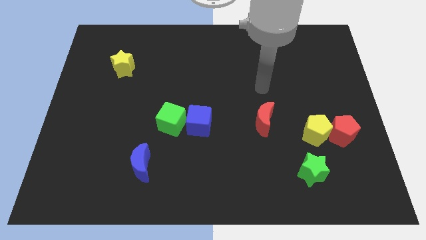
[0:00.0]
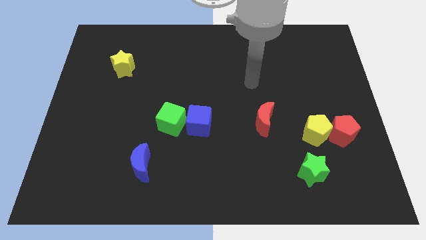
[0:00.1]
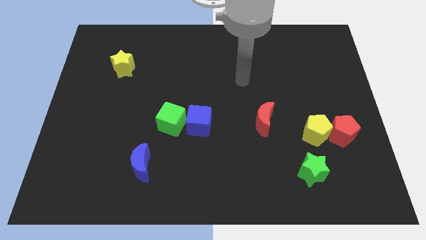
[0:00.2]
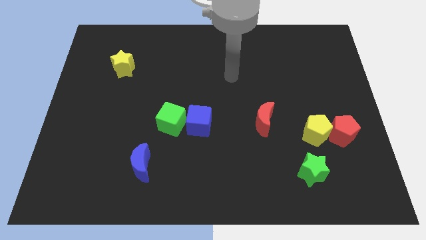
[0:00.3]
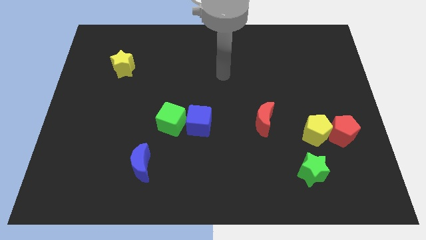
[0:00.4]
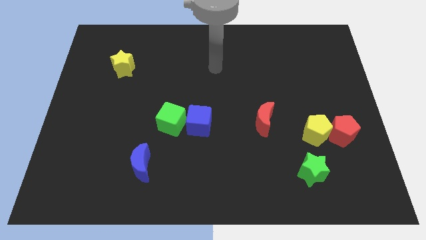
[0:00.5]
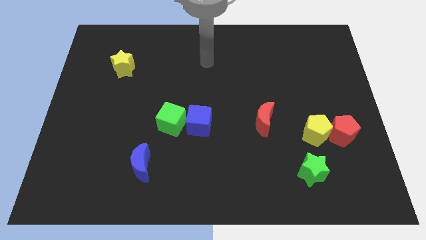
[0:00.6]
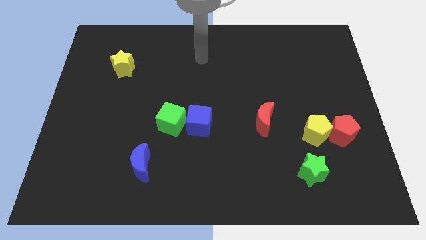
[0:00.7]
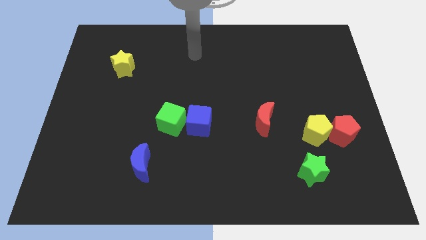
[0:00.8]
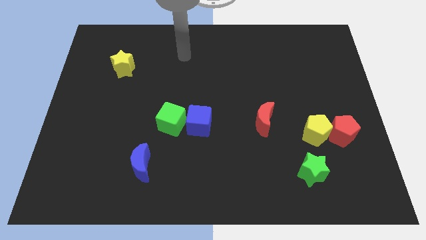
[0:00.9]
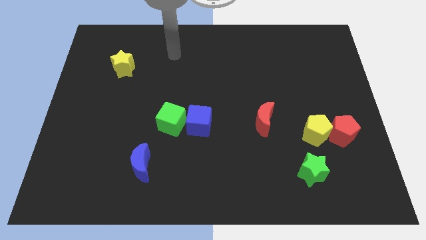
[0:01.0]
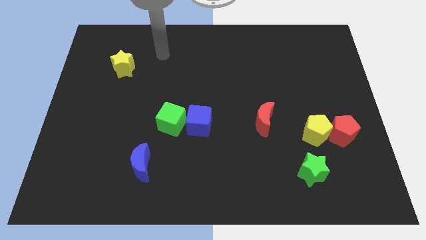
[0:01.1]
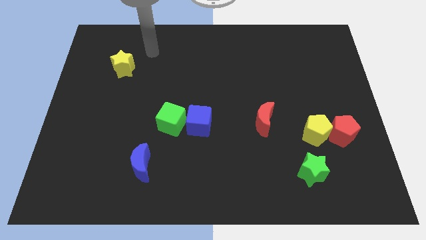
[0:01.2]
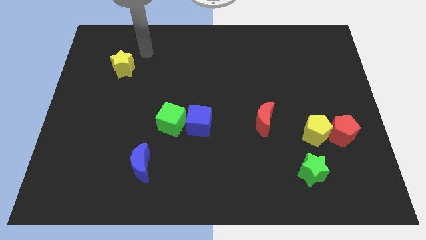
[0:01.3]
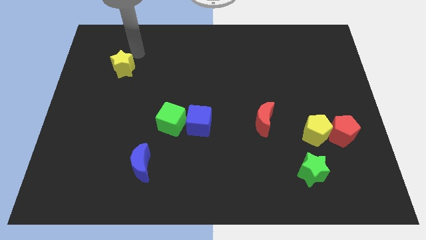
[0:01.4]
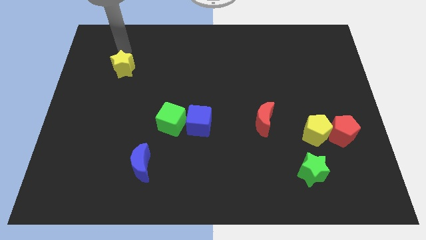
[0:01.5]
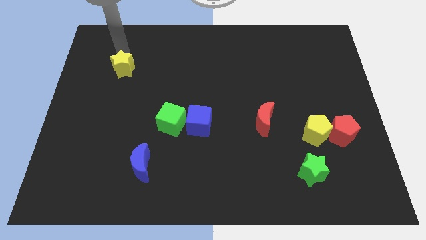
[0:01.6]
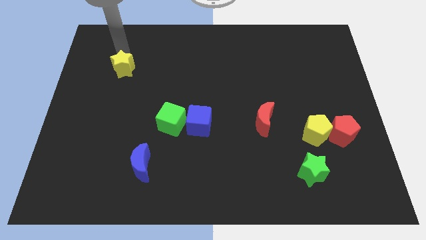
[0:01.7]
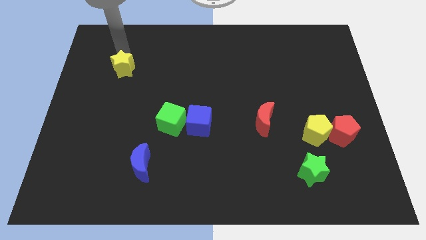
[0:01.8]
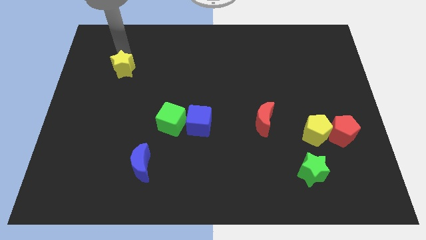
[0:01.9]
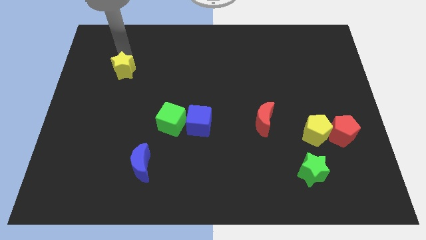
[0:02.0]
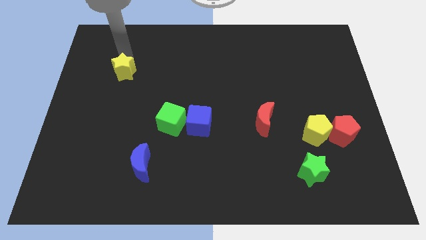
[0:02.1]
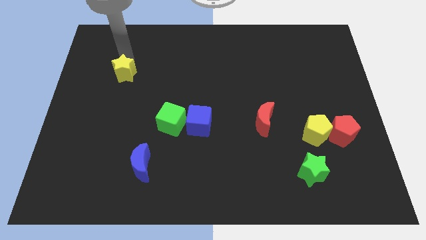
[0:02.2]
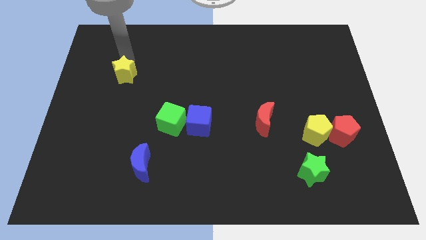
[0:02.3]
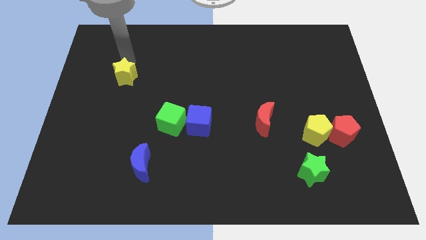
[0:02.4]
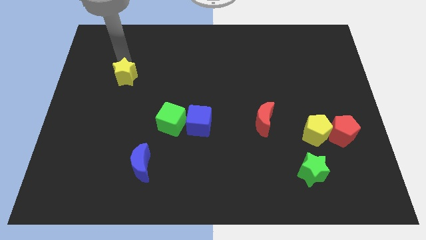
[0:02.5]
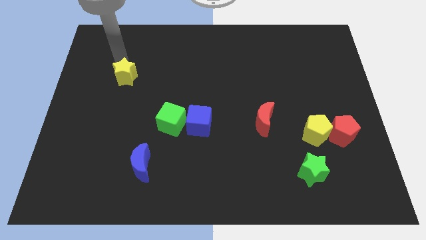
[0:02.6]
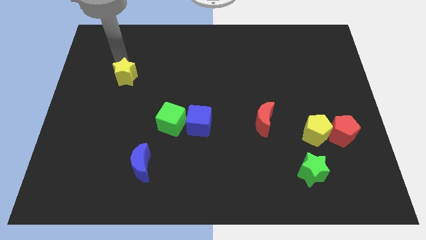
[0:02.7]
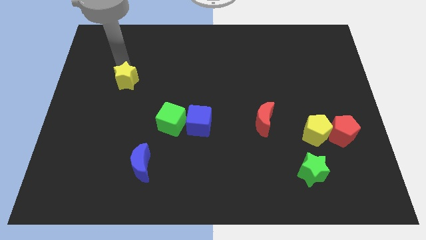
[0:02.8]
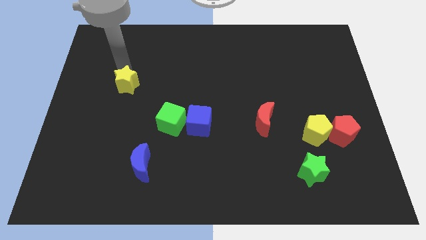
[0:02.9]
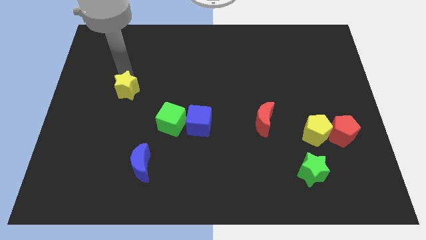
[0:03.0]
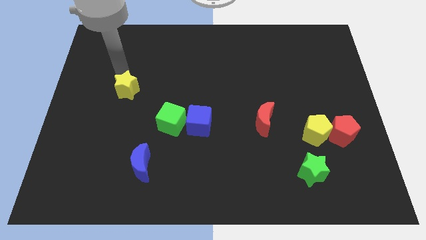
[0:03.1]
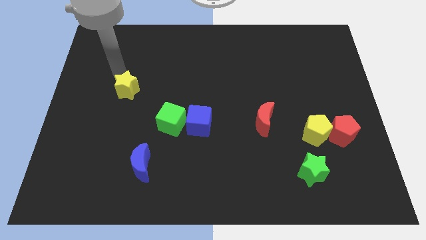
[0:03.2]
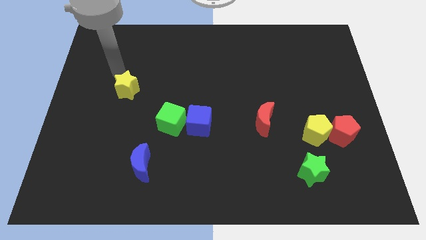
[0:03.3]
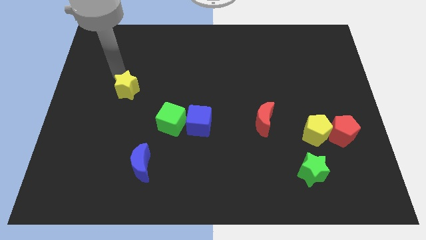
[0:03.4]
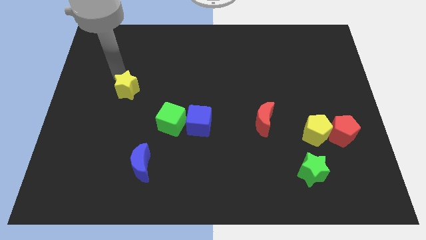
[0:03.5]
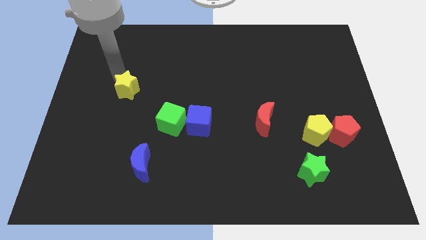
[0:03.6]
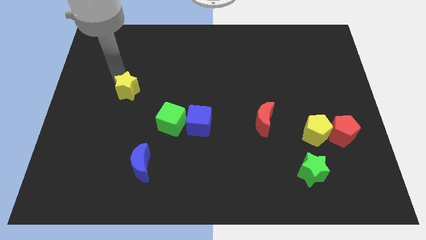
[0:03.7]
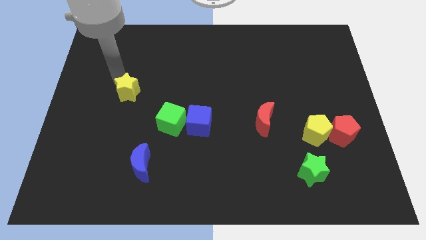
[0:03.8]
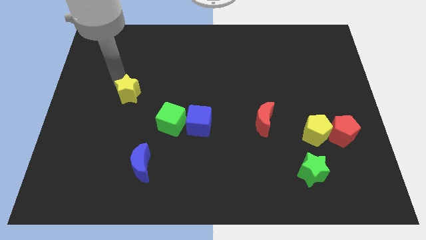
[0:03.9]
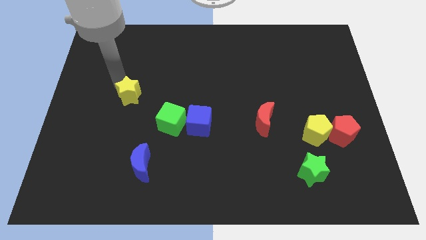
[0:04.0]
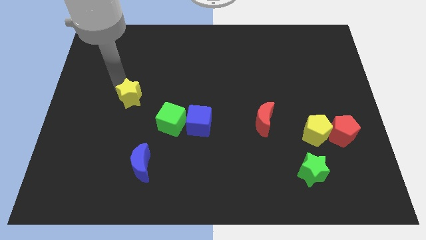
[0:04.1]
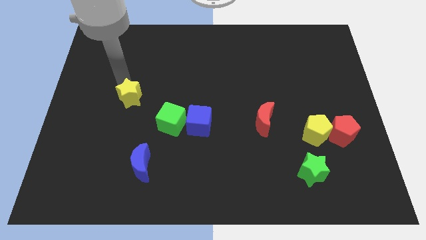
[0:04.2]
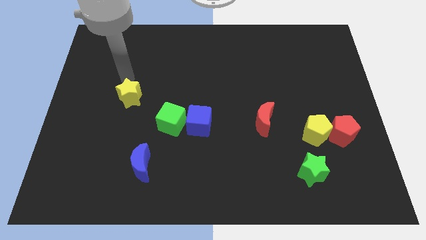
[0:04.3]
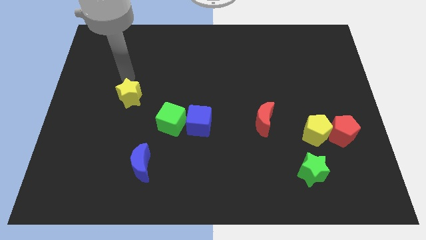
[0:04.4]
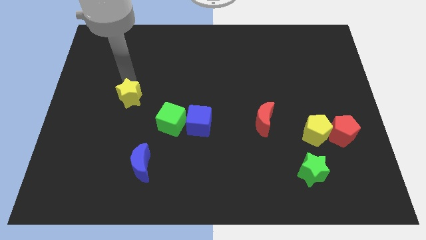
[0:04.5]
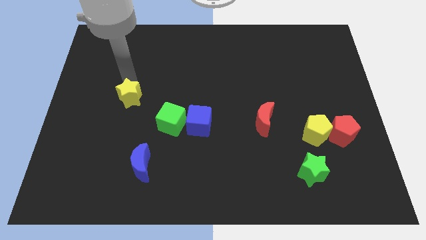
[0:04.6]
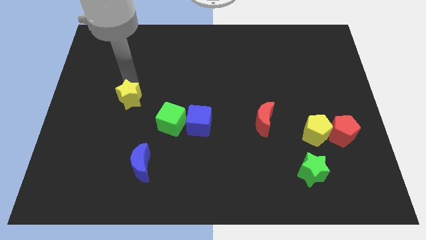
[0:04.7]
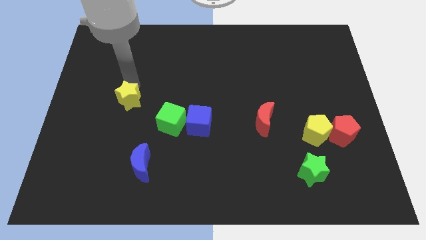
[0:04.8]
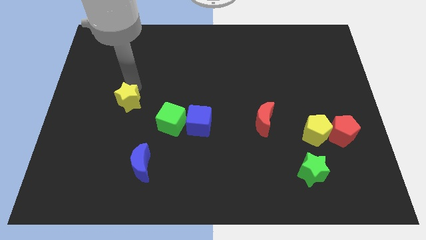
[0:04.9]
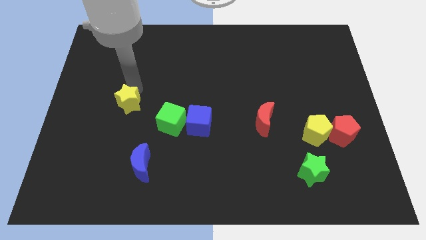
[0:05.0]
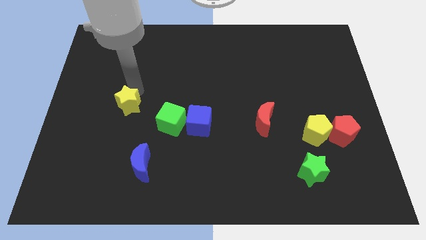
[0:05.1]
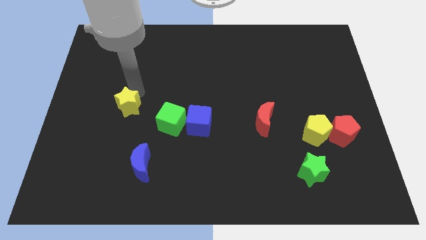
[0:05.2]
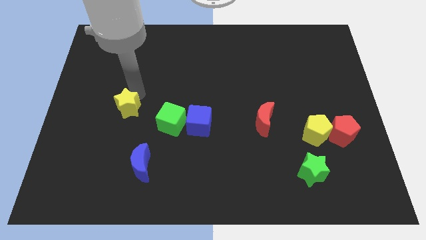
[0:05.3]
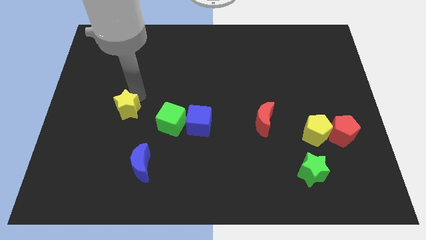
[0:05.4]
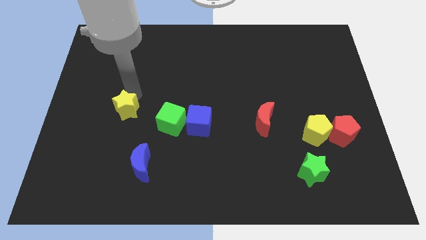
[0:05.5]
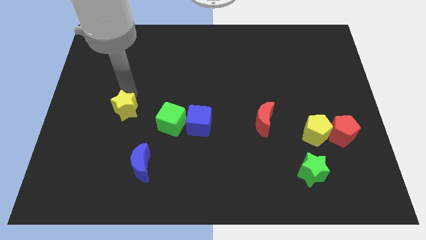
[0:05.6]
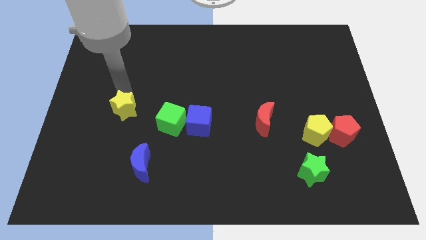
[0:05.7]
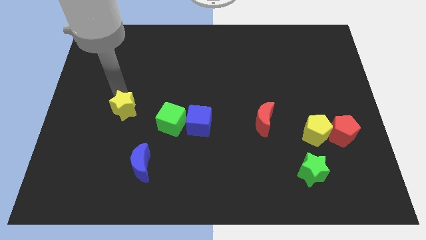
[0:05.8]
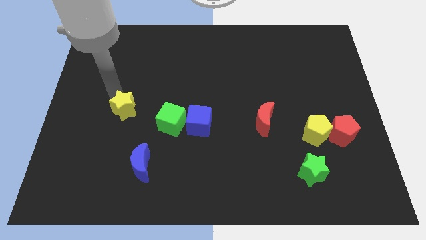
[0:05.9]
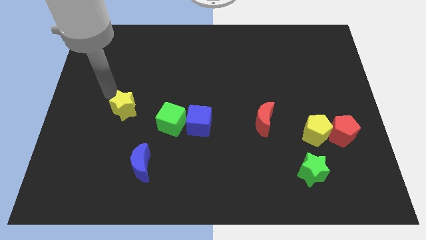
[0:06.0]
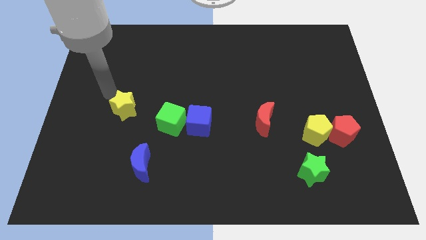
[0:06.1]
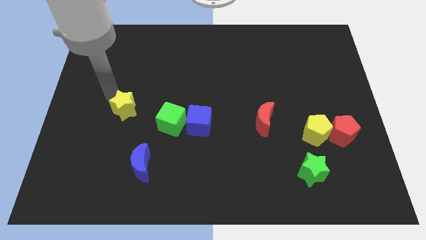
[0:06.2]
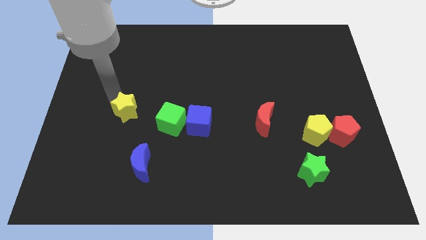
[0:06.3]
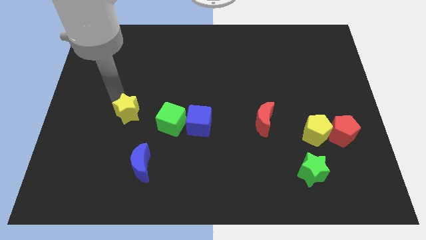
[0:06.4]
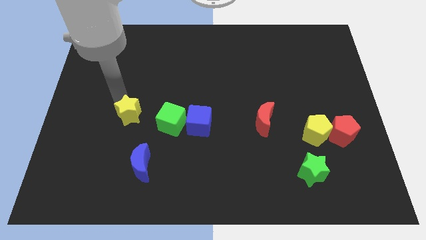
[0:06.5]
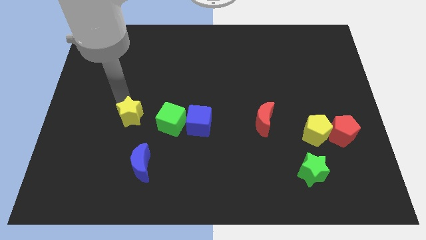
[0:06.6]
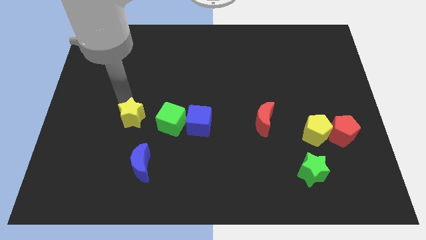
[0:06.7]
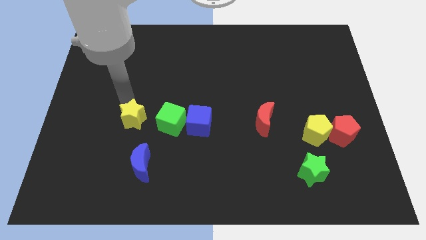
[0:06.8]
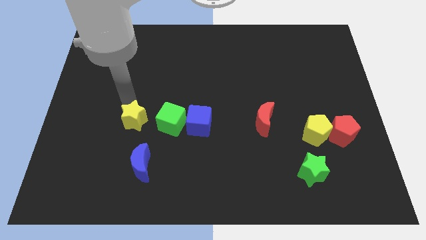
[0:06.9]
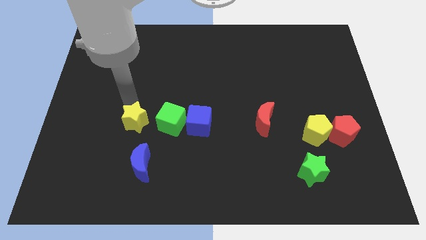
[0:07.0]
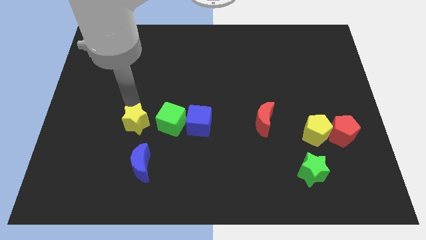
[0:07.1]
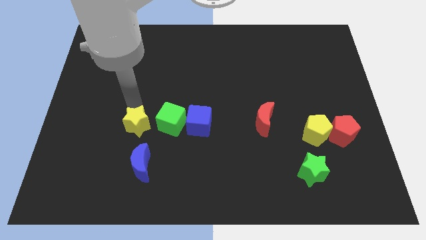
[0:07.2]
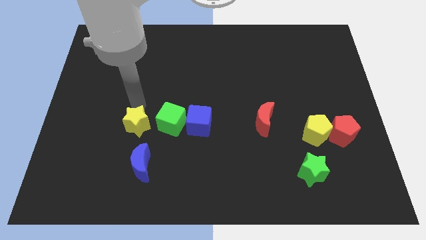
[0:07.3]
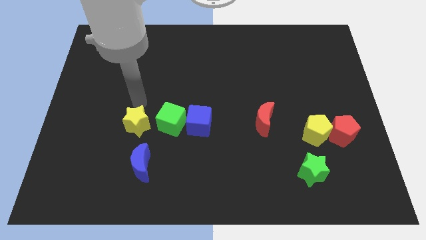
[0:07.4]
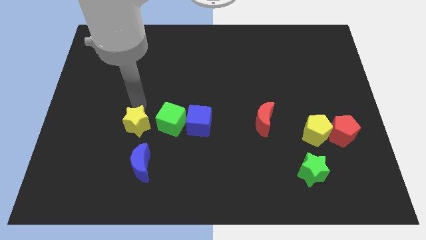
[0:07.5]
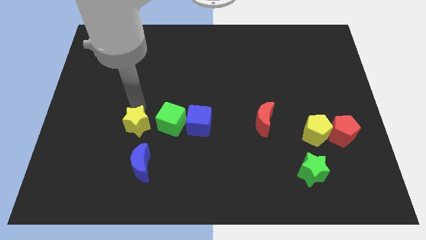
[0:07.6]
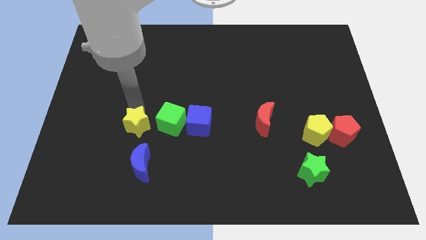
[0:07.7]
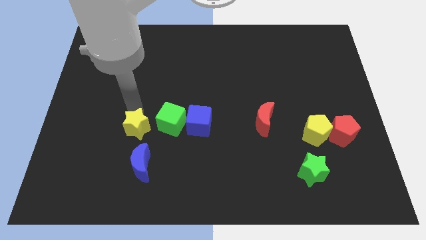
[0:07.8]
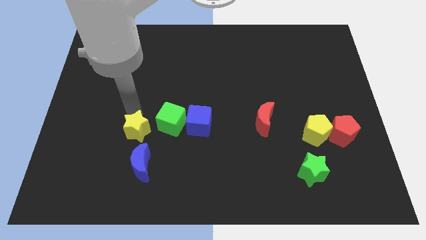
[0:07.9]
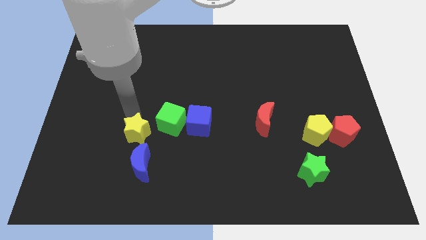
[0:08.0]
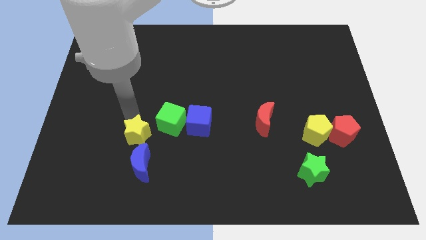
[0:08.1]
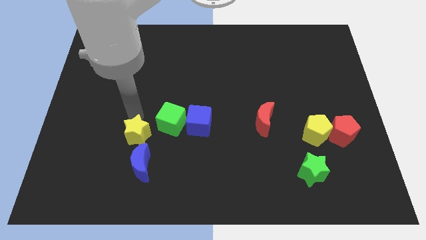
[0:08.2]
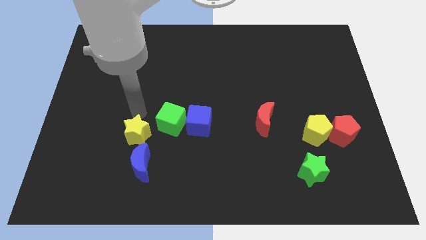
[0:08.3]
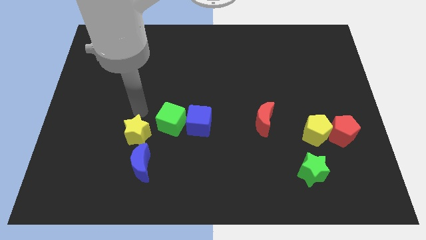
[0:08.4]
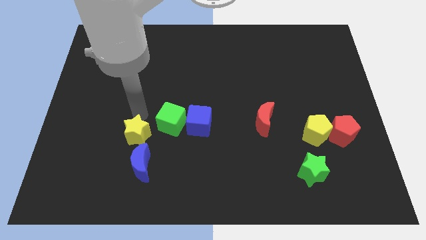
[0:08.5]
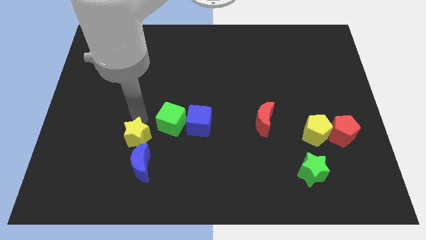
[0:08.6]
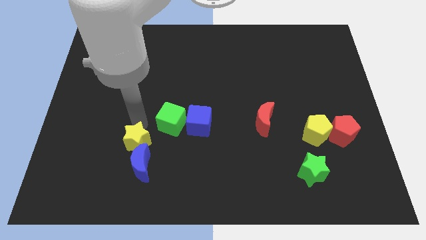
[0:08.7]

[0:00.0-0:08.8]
put the yellow star close to the blue moon
